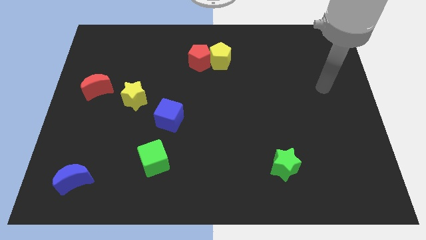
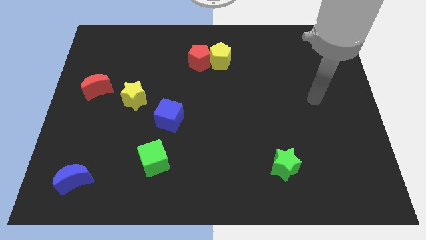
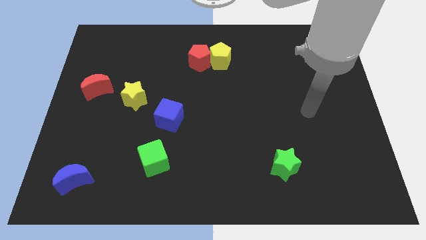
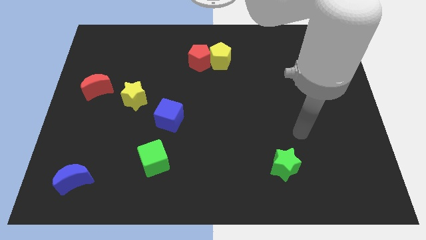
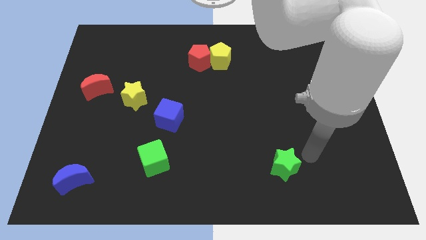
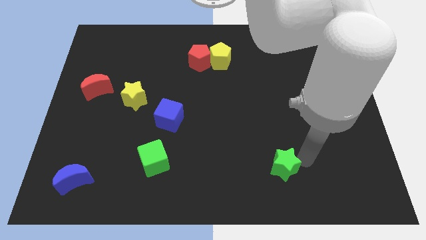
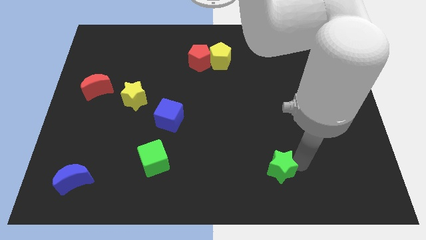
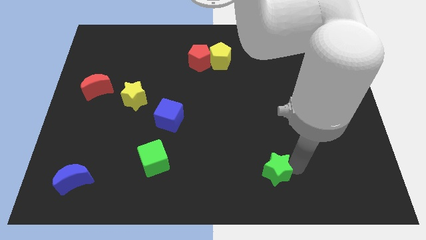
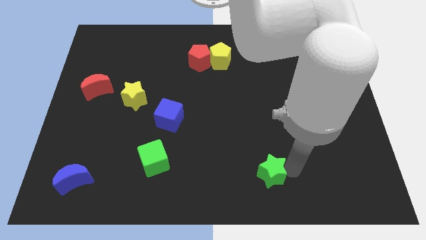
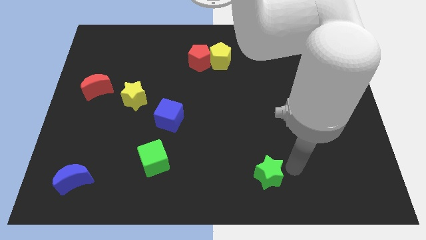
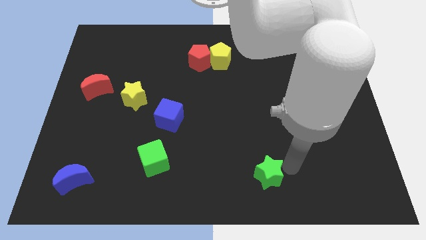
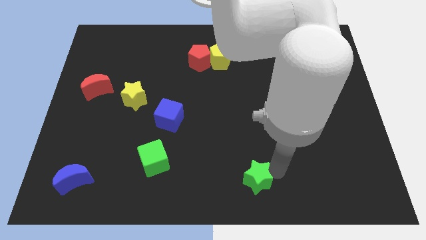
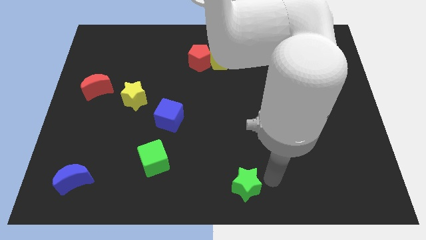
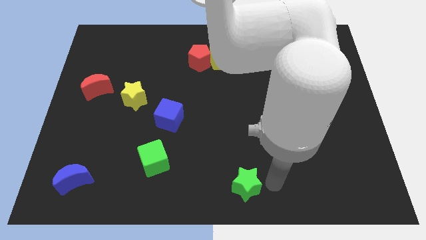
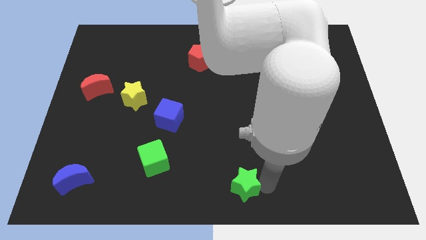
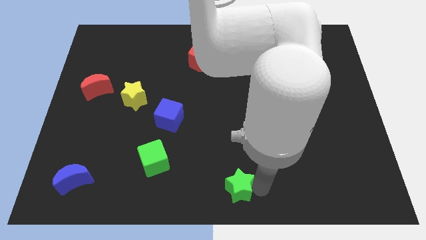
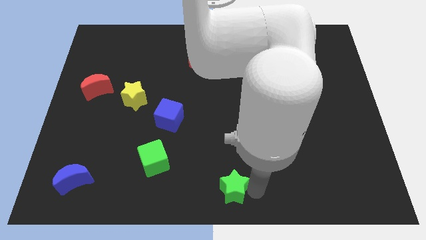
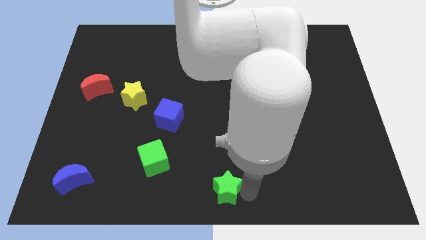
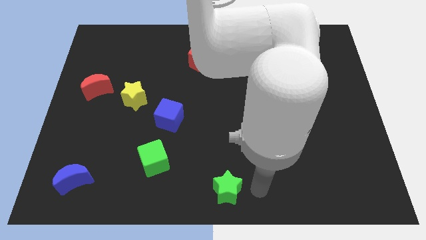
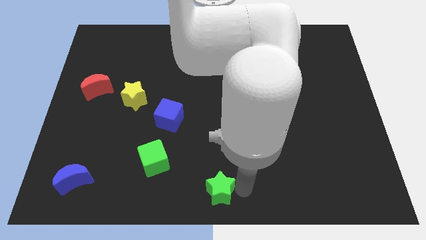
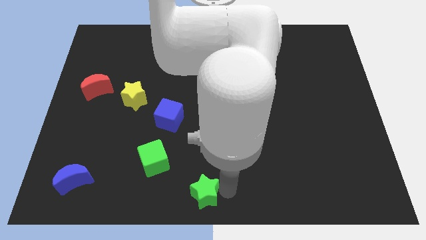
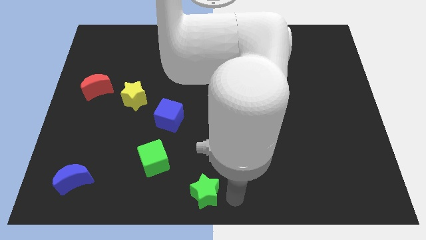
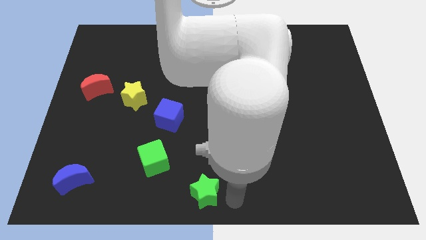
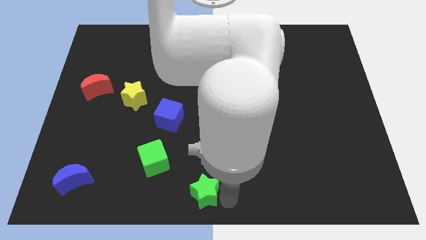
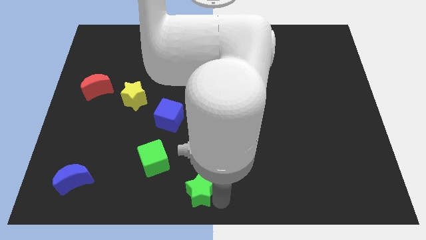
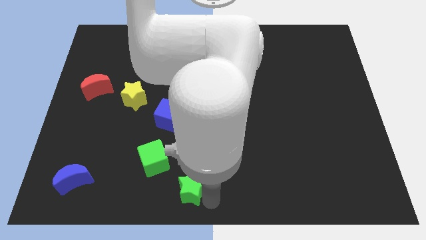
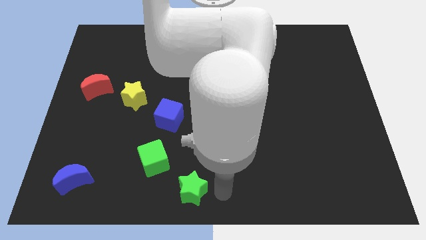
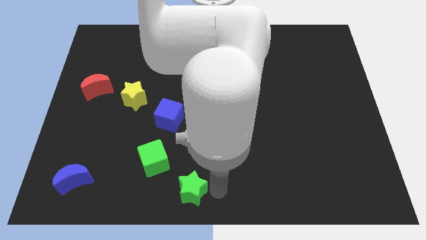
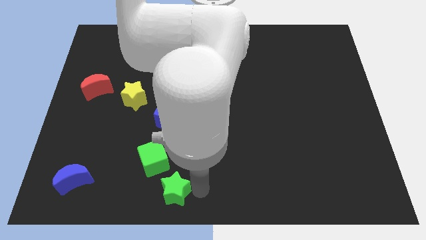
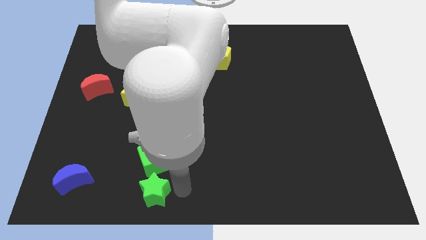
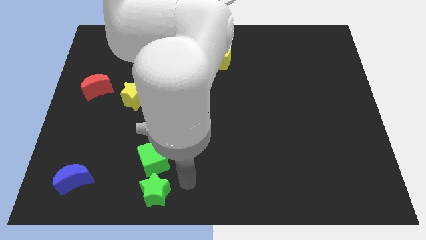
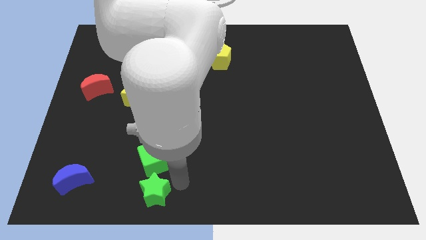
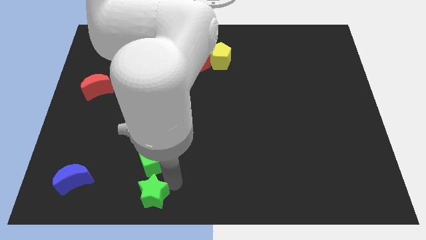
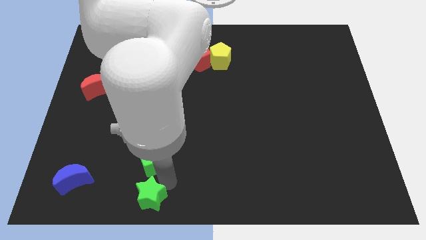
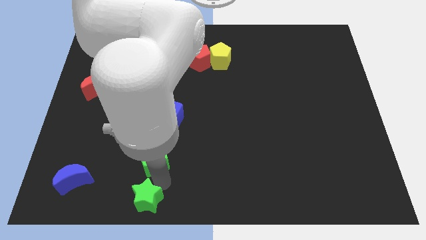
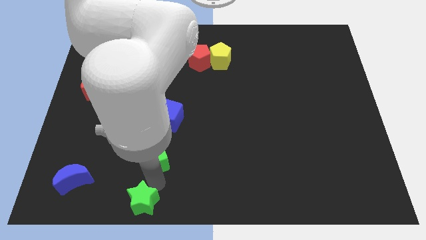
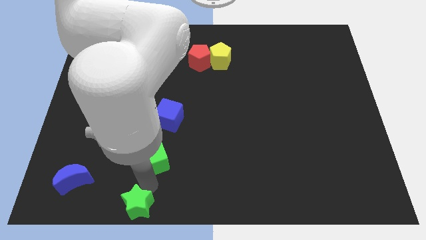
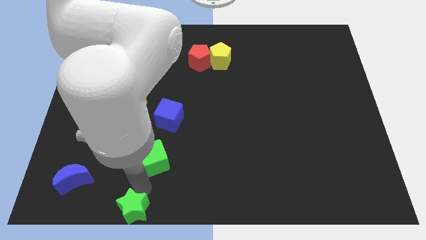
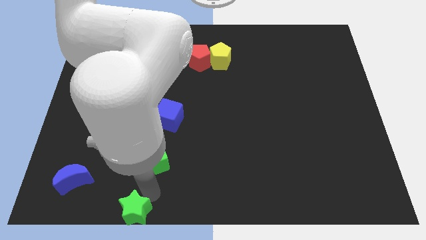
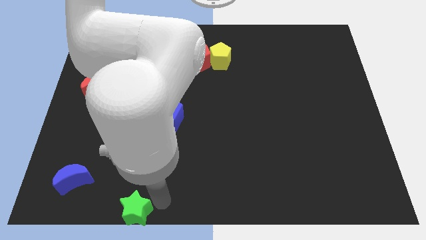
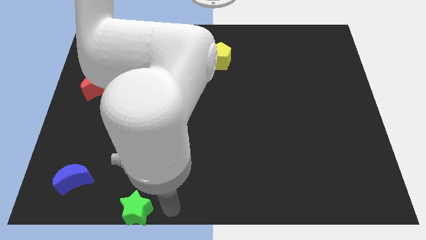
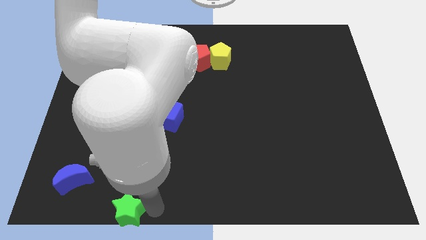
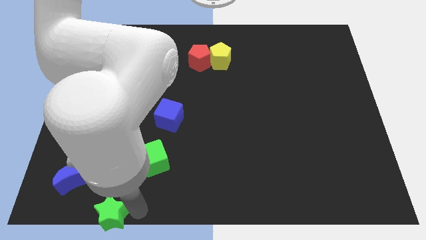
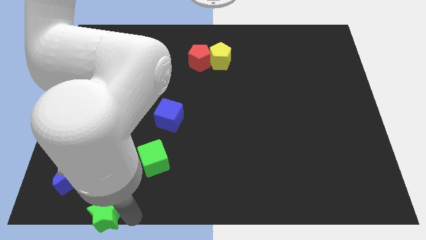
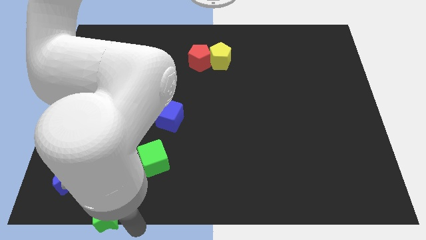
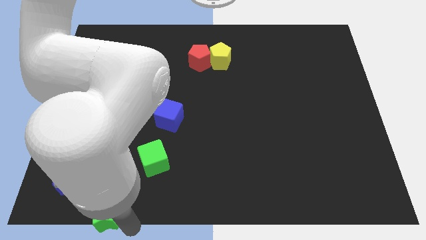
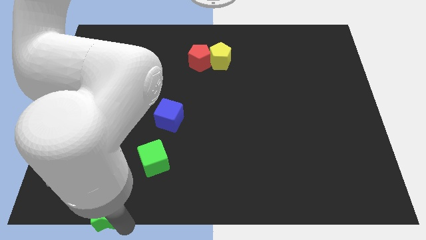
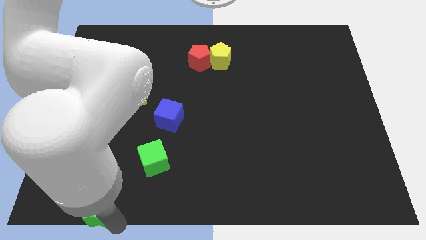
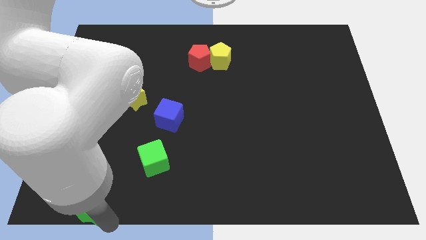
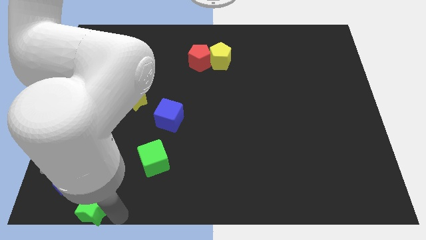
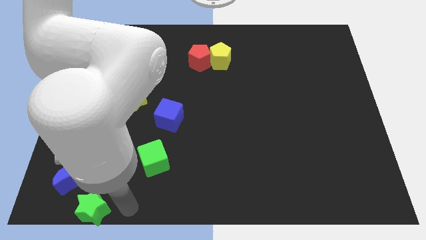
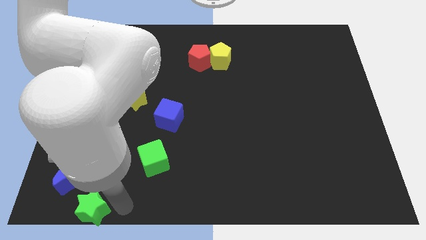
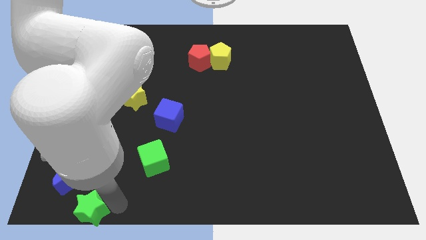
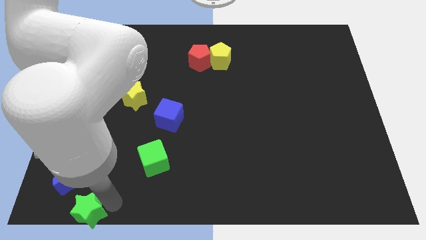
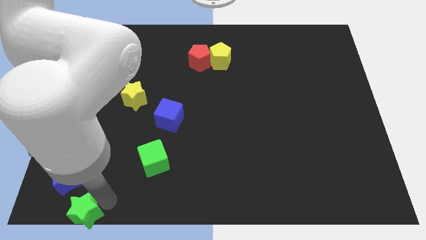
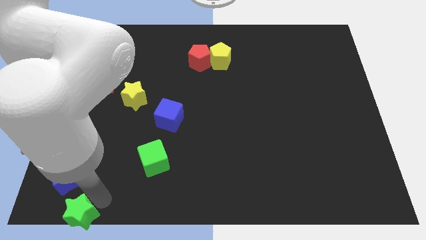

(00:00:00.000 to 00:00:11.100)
put the green star to the bottom left of the board
